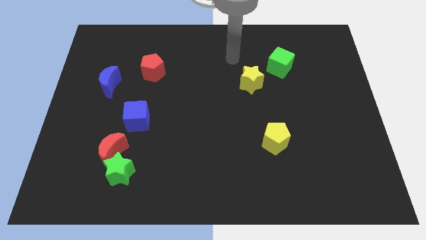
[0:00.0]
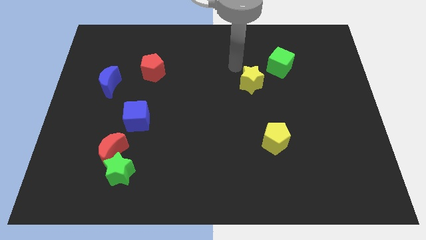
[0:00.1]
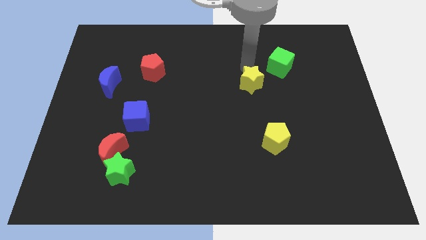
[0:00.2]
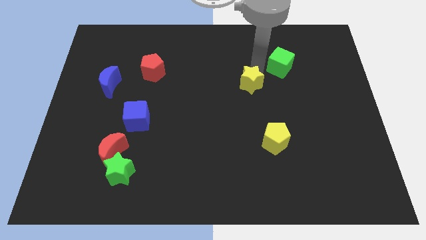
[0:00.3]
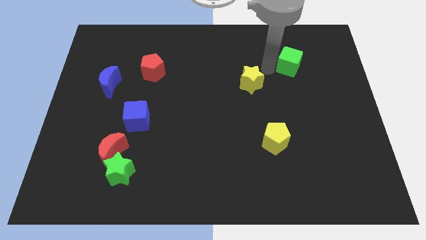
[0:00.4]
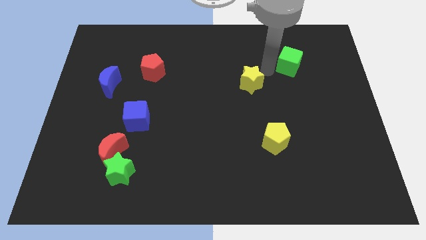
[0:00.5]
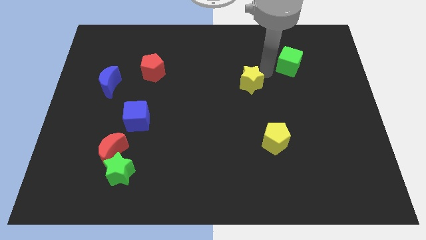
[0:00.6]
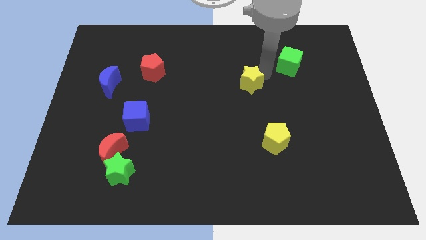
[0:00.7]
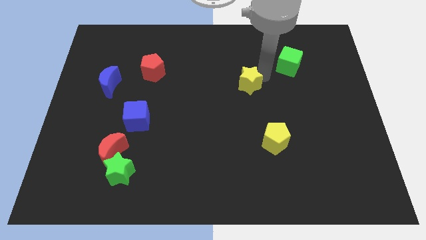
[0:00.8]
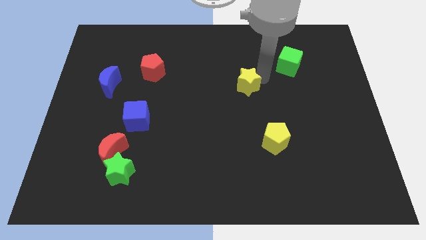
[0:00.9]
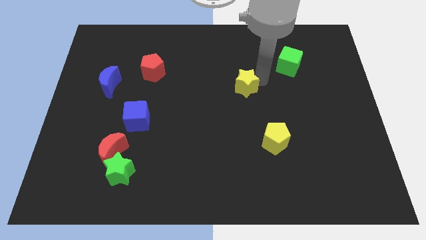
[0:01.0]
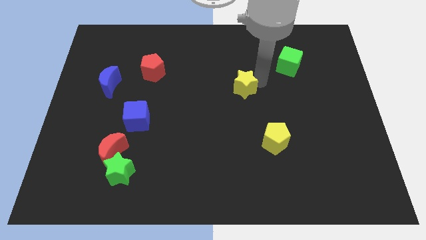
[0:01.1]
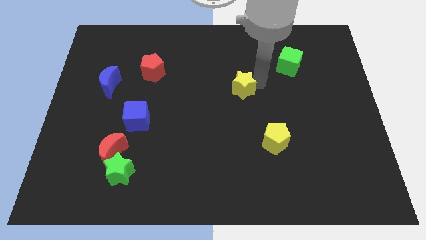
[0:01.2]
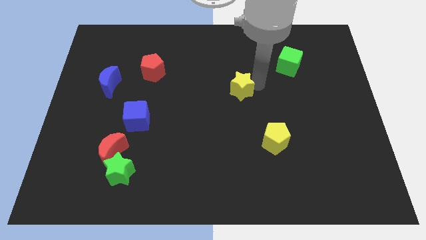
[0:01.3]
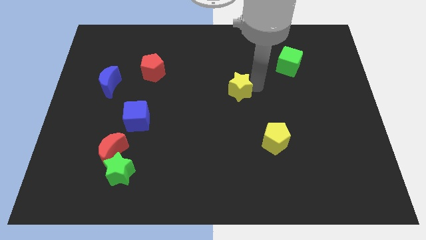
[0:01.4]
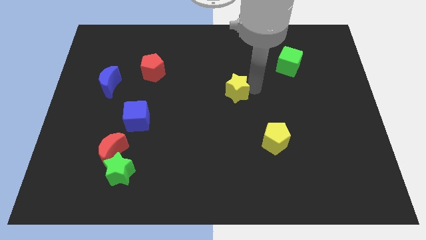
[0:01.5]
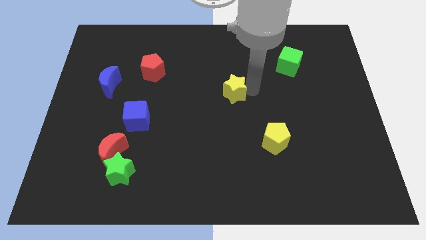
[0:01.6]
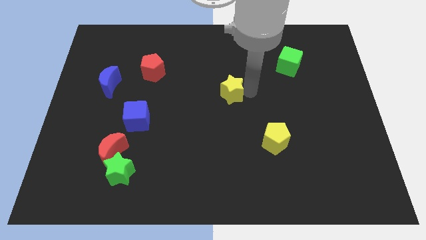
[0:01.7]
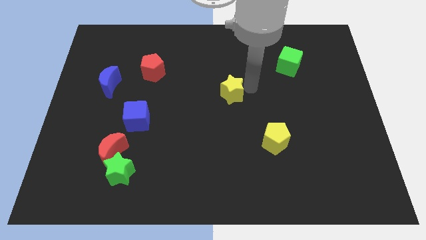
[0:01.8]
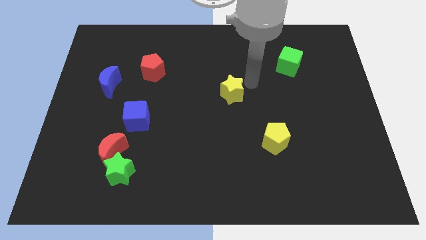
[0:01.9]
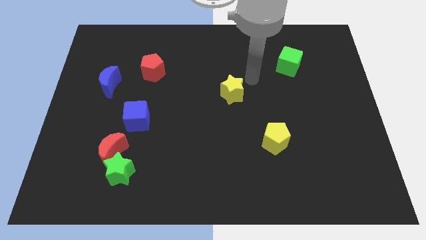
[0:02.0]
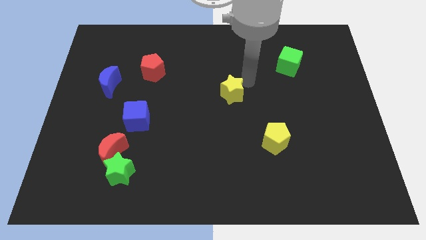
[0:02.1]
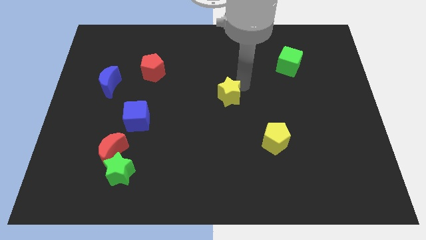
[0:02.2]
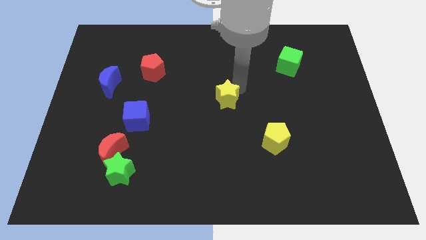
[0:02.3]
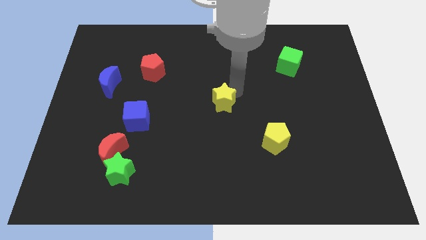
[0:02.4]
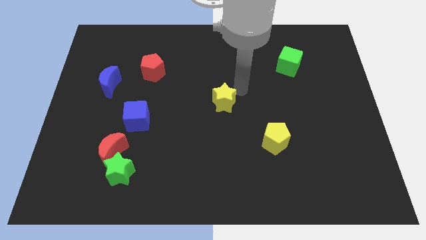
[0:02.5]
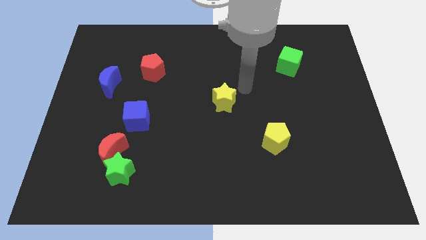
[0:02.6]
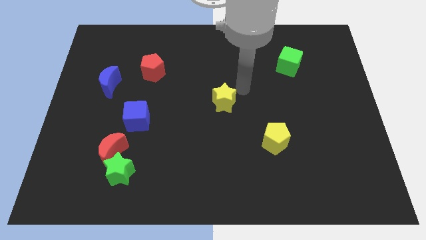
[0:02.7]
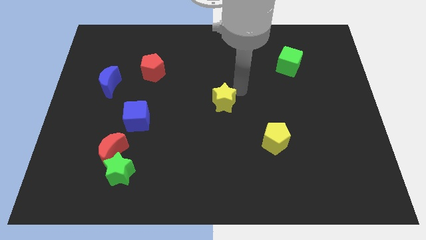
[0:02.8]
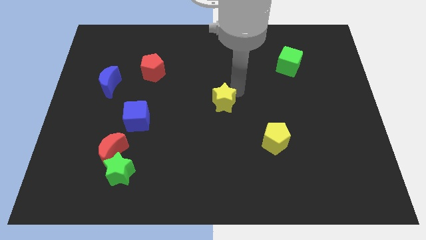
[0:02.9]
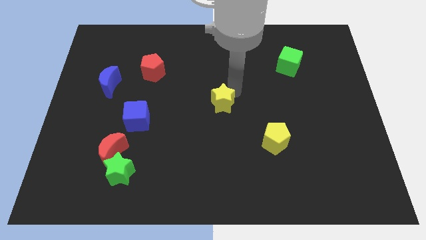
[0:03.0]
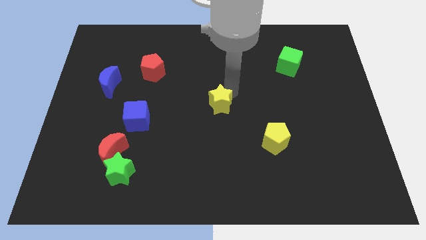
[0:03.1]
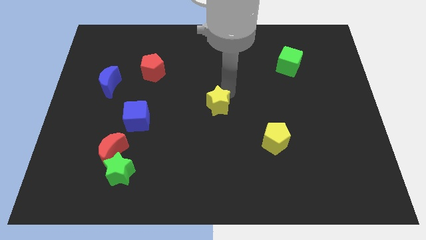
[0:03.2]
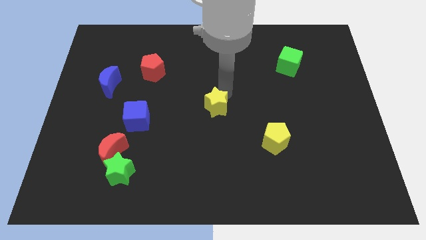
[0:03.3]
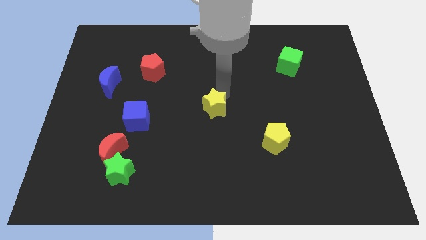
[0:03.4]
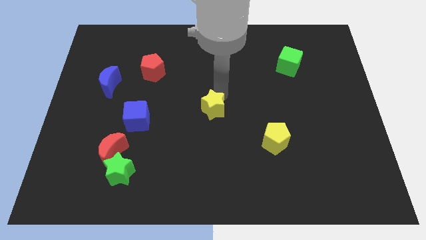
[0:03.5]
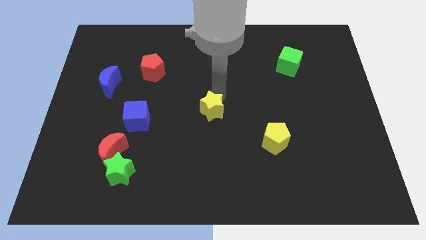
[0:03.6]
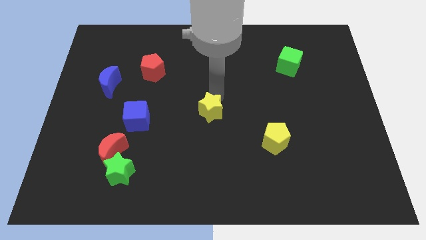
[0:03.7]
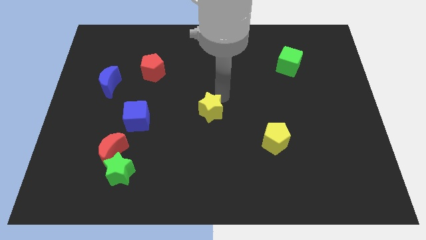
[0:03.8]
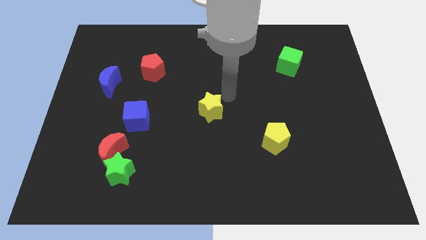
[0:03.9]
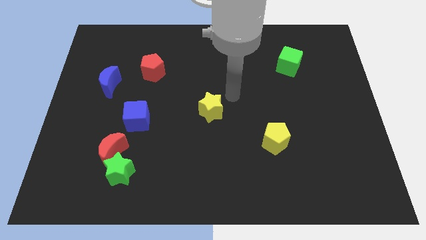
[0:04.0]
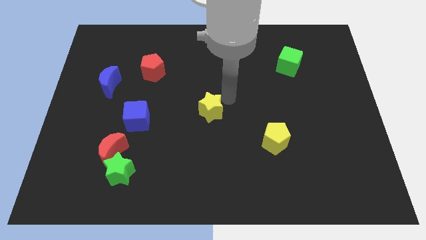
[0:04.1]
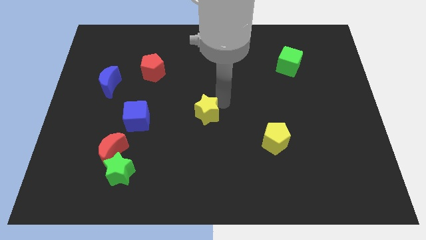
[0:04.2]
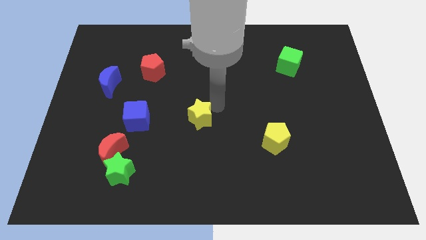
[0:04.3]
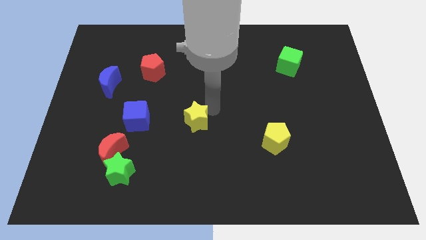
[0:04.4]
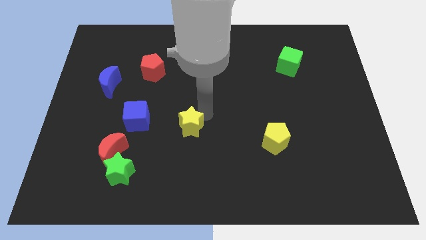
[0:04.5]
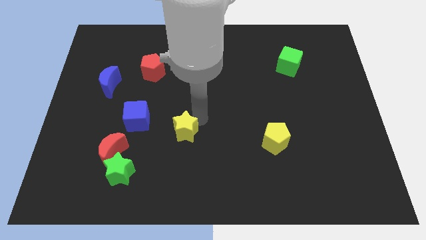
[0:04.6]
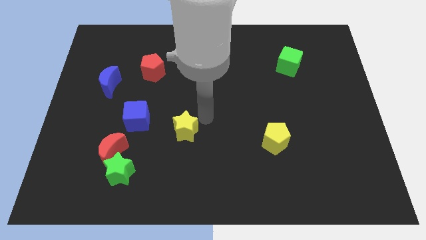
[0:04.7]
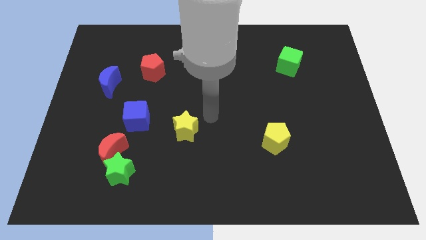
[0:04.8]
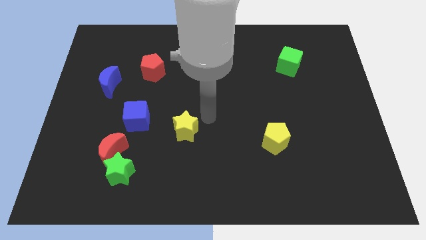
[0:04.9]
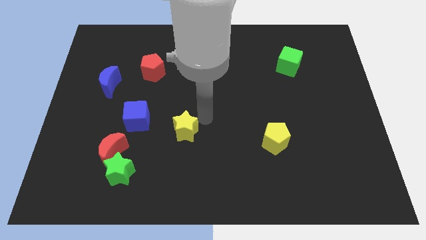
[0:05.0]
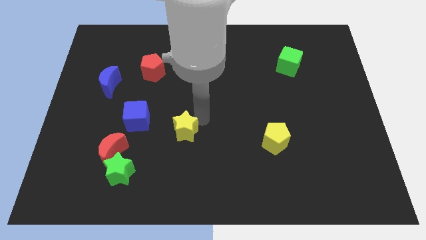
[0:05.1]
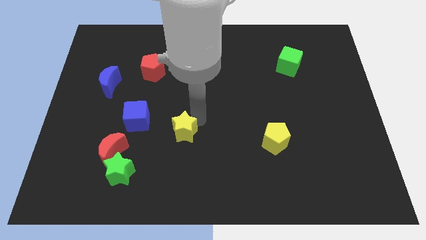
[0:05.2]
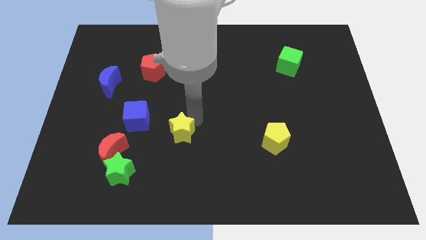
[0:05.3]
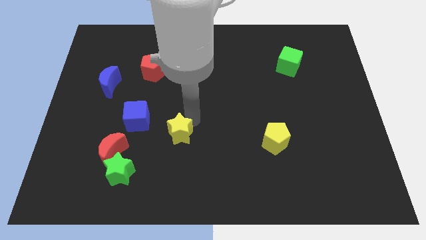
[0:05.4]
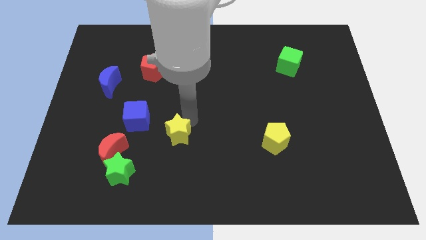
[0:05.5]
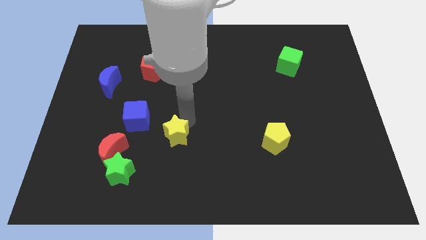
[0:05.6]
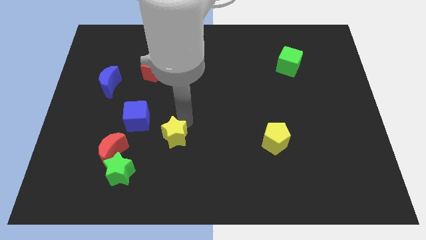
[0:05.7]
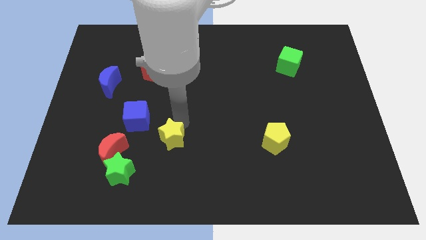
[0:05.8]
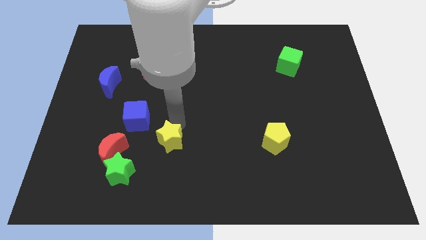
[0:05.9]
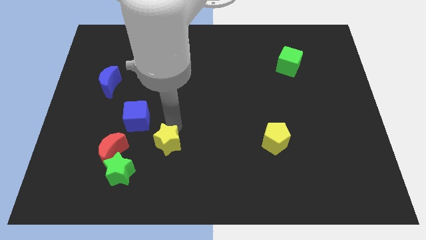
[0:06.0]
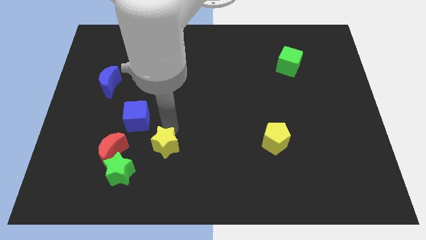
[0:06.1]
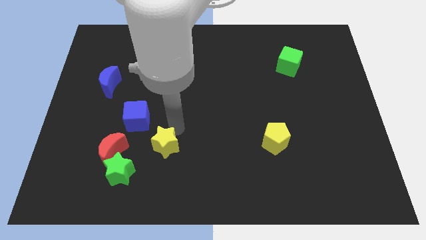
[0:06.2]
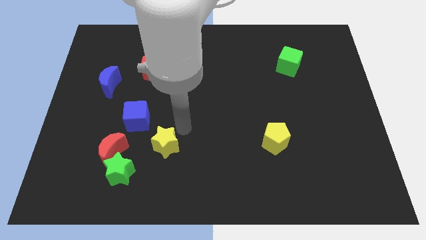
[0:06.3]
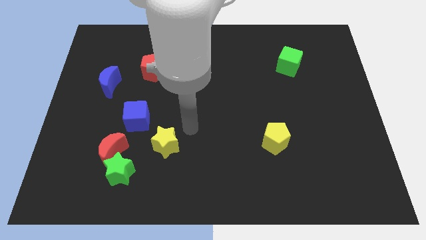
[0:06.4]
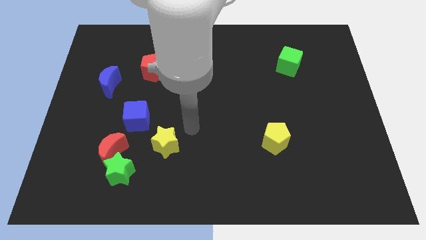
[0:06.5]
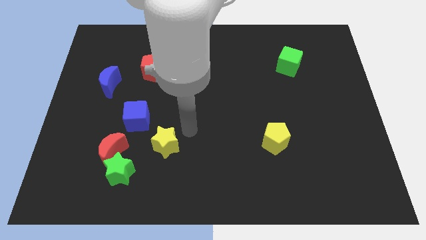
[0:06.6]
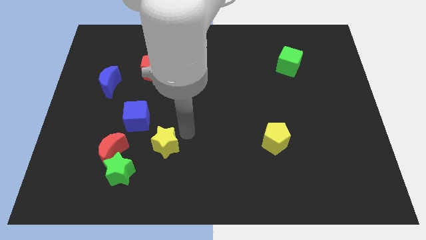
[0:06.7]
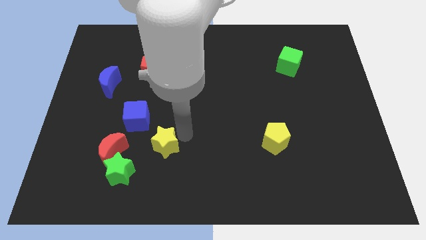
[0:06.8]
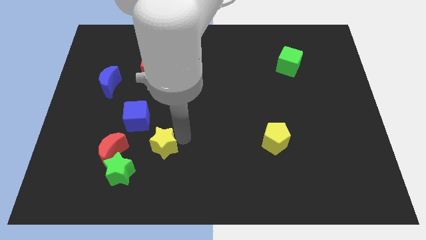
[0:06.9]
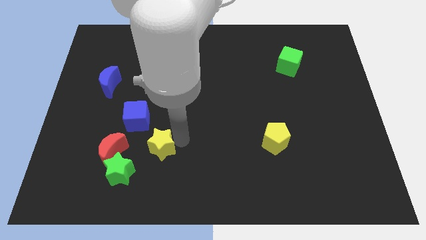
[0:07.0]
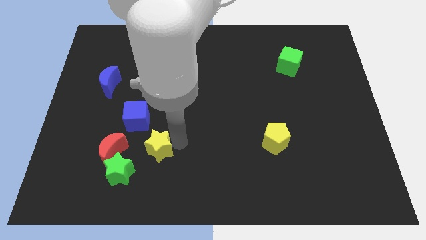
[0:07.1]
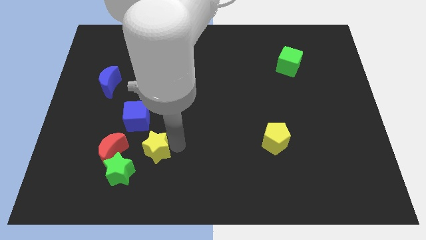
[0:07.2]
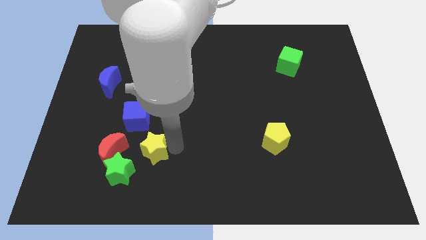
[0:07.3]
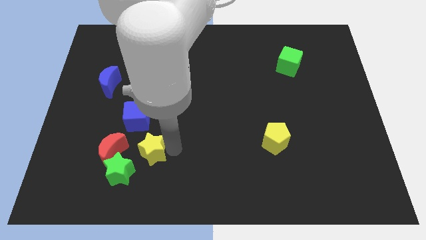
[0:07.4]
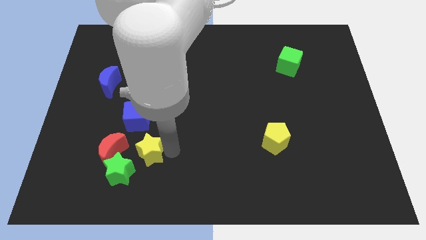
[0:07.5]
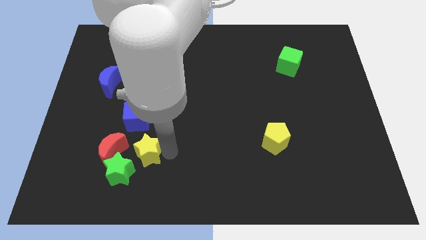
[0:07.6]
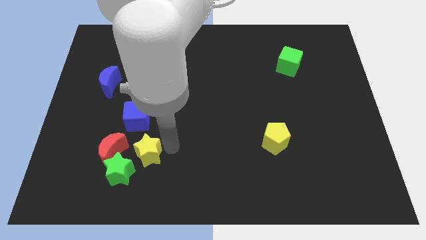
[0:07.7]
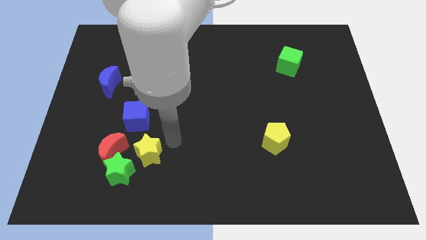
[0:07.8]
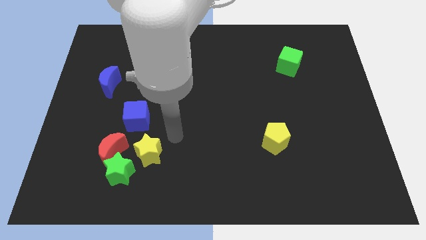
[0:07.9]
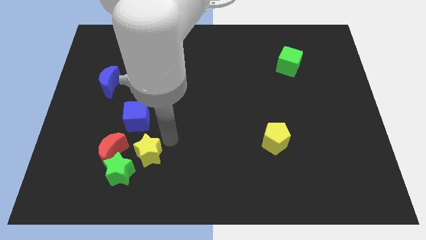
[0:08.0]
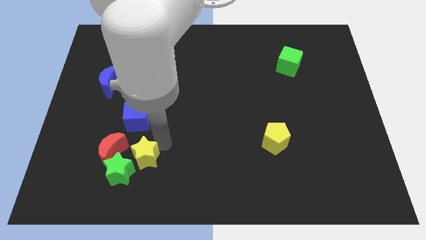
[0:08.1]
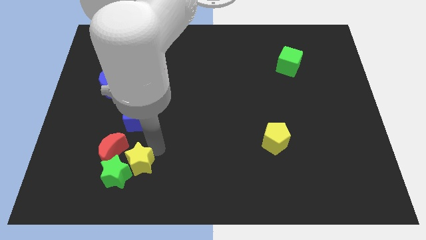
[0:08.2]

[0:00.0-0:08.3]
put the yellow star towards the green star
